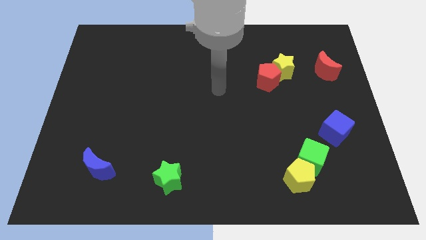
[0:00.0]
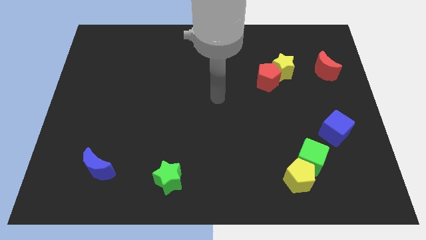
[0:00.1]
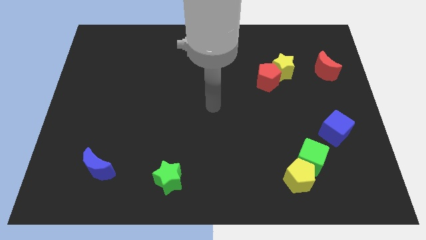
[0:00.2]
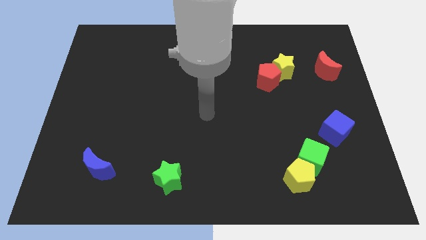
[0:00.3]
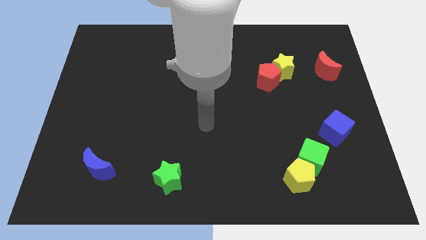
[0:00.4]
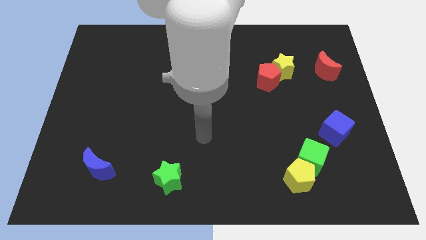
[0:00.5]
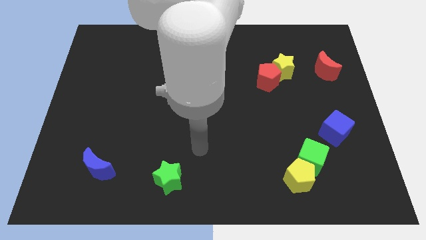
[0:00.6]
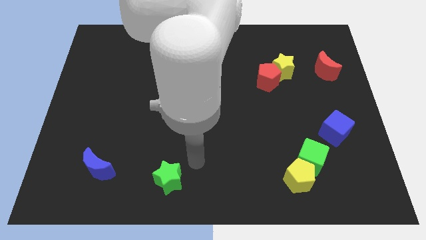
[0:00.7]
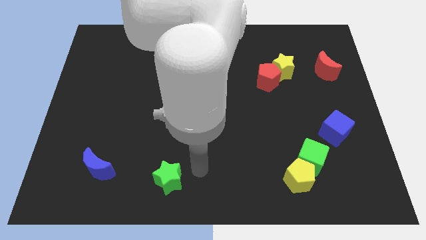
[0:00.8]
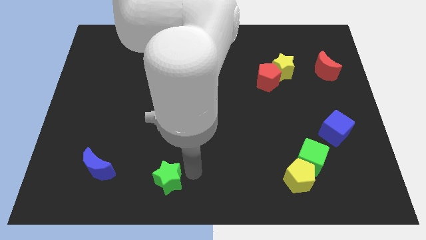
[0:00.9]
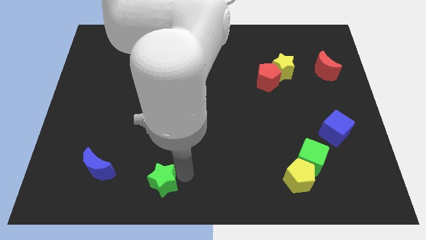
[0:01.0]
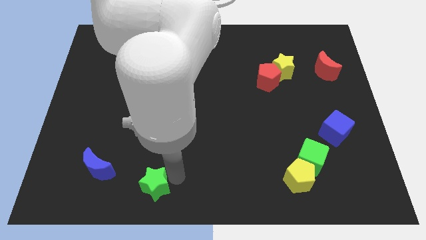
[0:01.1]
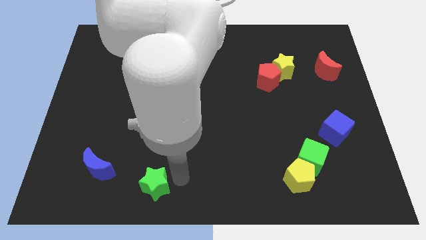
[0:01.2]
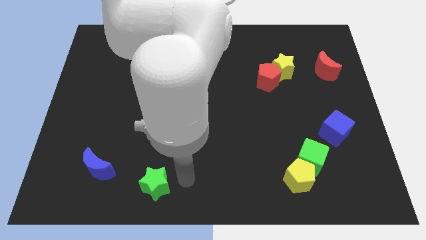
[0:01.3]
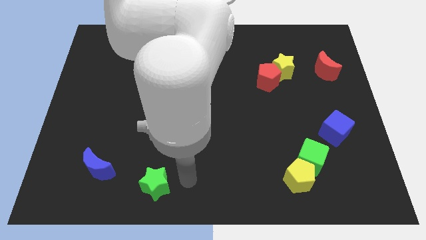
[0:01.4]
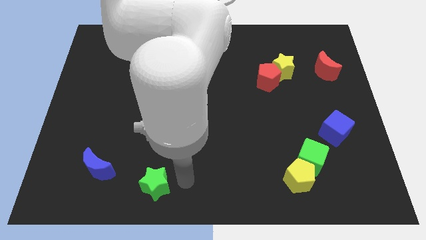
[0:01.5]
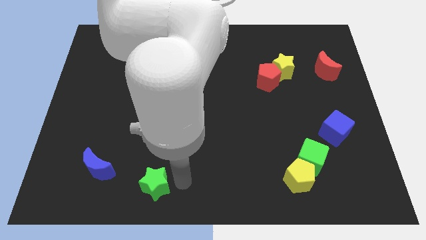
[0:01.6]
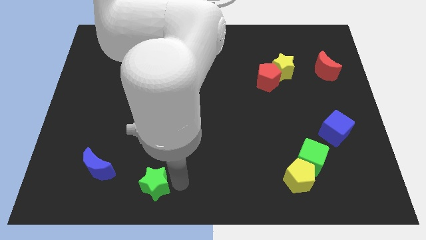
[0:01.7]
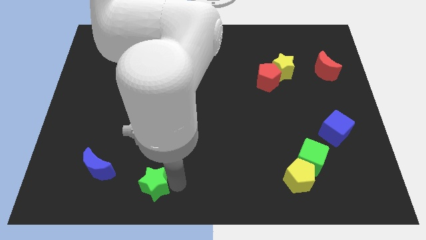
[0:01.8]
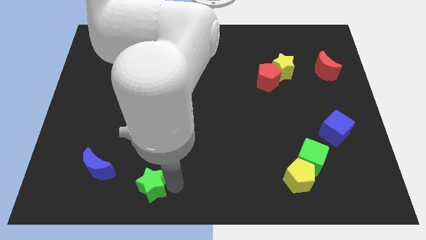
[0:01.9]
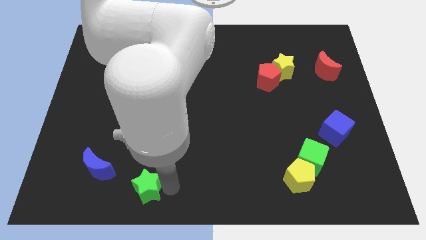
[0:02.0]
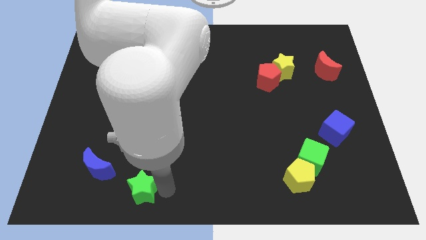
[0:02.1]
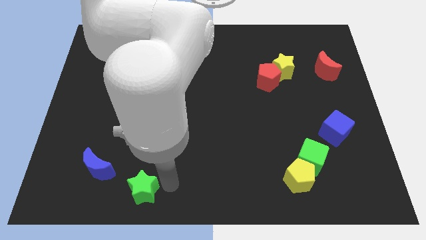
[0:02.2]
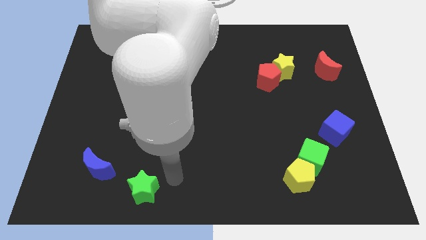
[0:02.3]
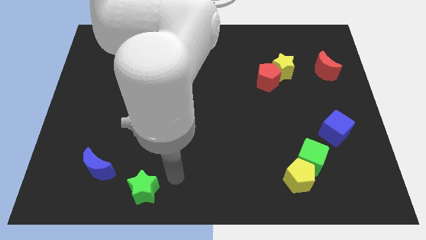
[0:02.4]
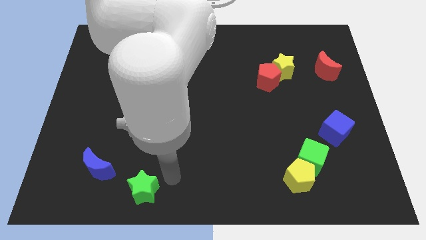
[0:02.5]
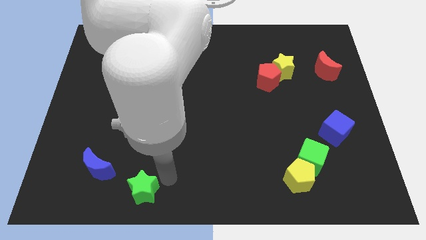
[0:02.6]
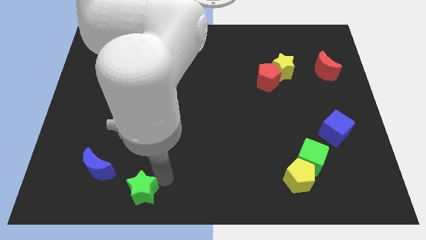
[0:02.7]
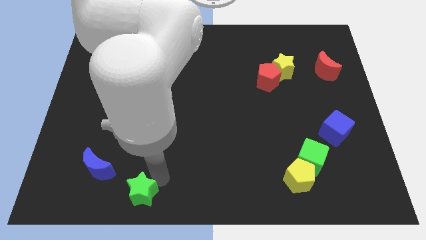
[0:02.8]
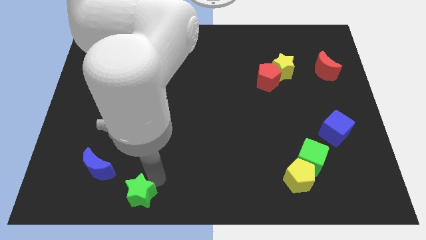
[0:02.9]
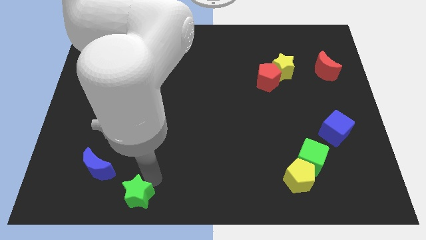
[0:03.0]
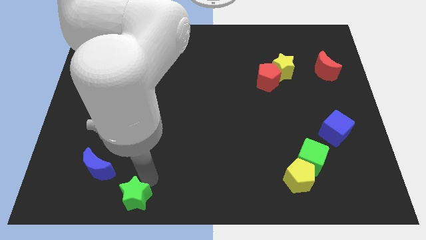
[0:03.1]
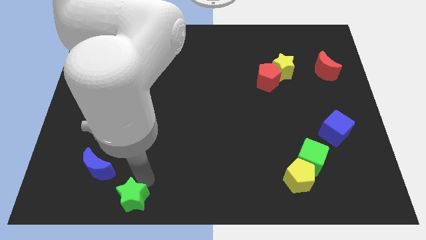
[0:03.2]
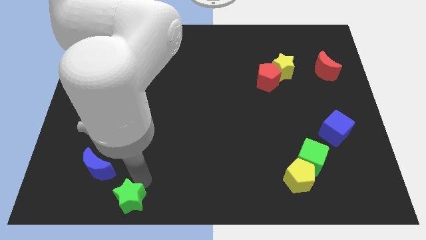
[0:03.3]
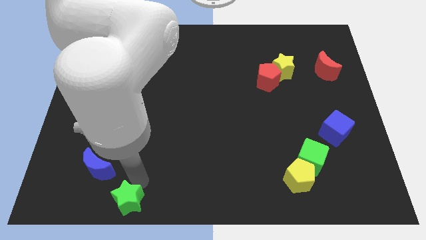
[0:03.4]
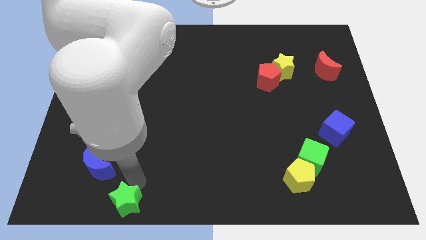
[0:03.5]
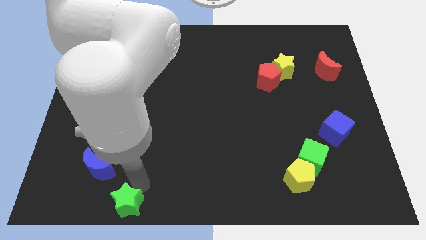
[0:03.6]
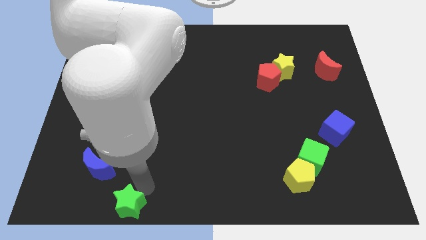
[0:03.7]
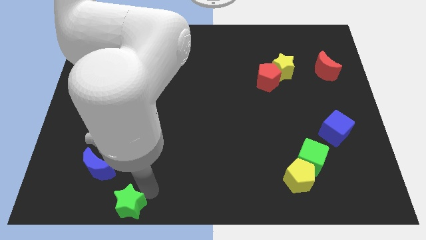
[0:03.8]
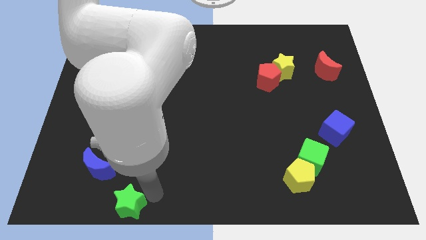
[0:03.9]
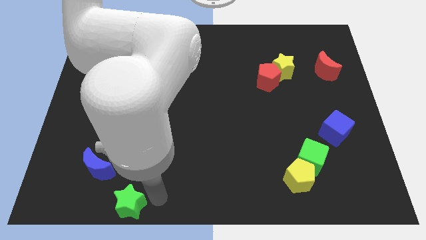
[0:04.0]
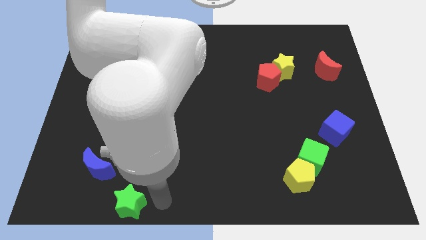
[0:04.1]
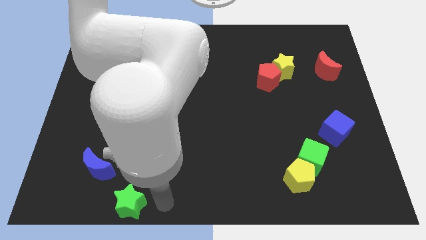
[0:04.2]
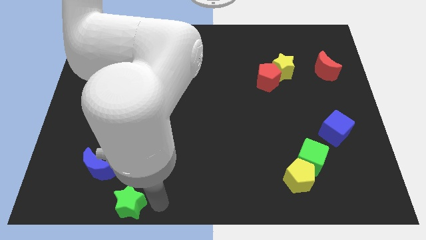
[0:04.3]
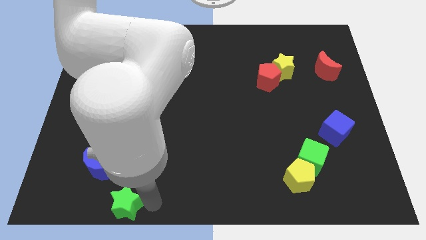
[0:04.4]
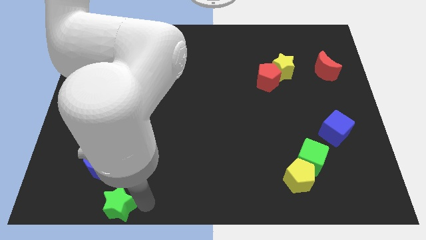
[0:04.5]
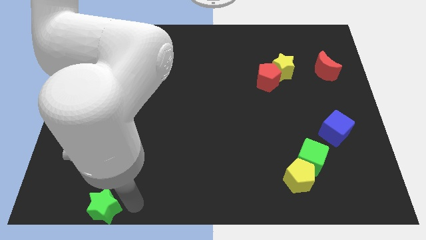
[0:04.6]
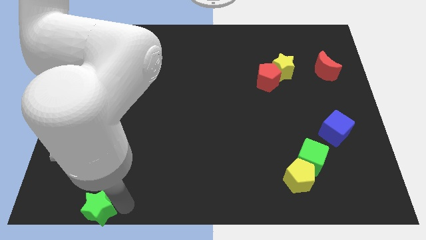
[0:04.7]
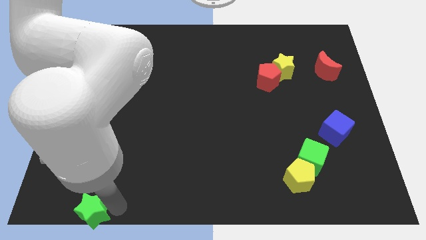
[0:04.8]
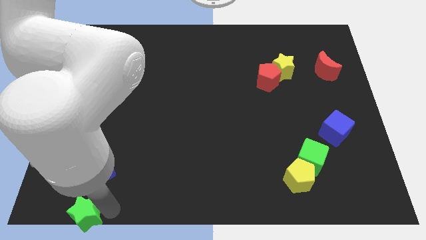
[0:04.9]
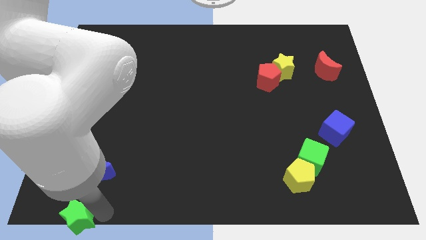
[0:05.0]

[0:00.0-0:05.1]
move the green star to the bottom left corner

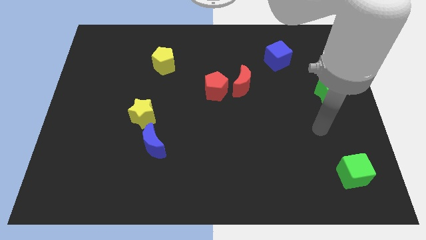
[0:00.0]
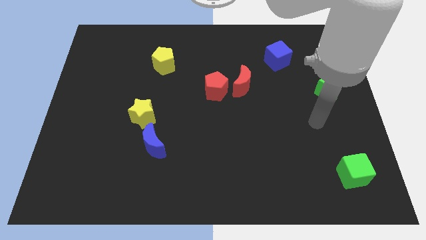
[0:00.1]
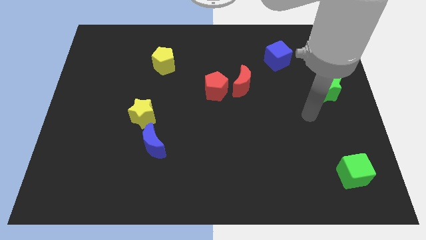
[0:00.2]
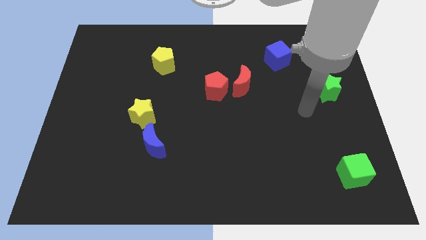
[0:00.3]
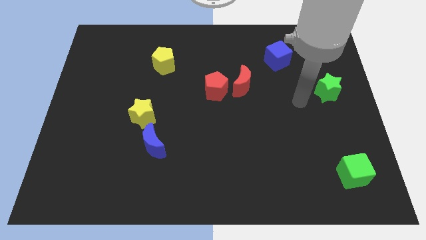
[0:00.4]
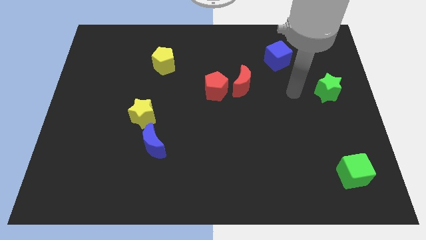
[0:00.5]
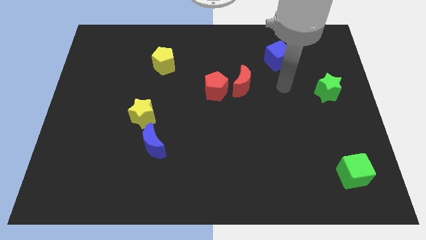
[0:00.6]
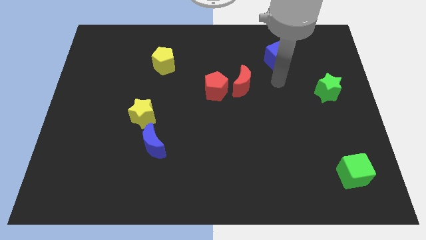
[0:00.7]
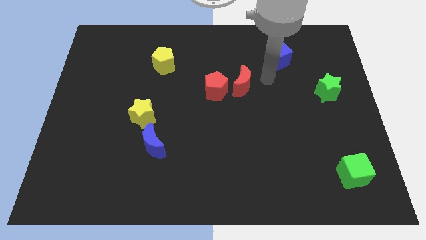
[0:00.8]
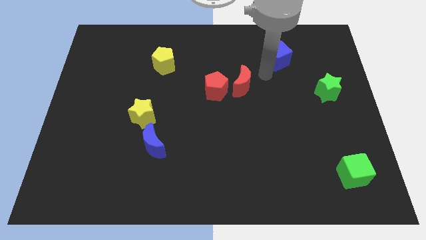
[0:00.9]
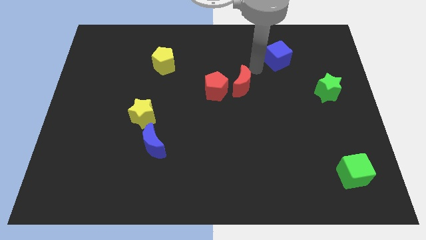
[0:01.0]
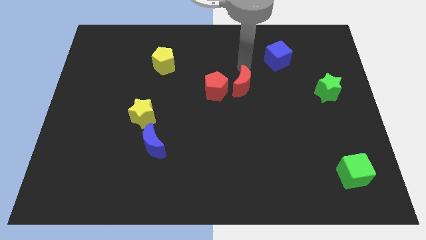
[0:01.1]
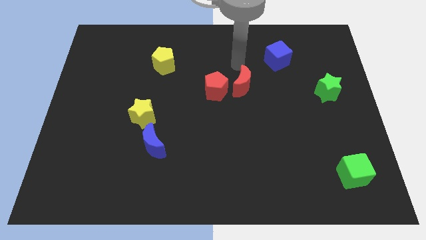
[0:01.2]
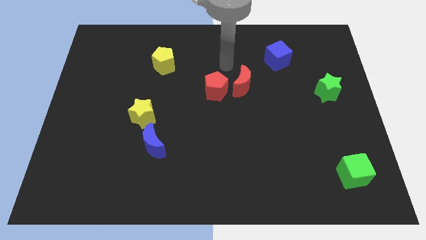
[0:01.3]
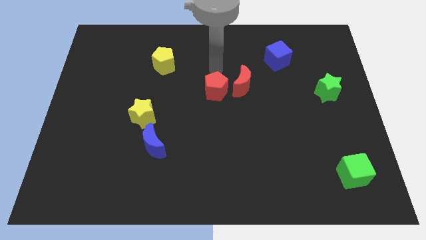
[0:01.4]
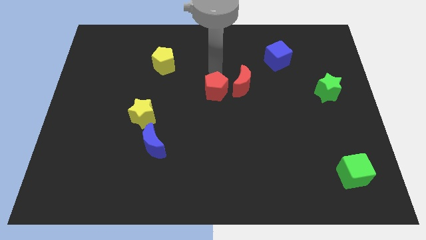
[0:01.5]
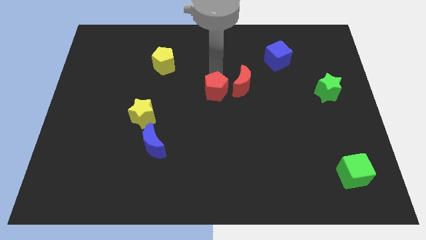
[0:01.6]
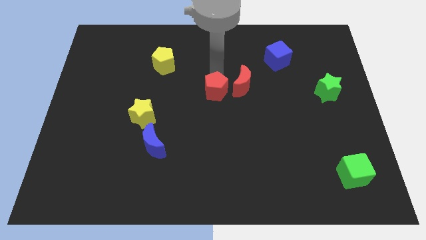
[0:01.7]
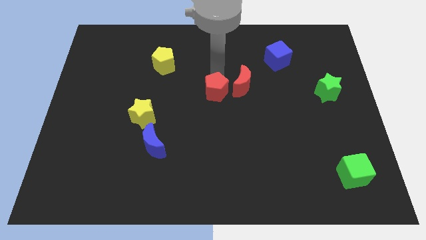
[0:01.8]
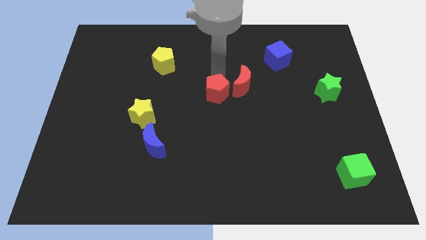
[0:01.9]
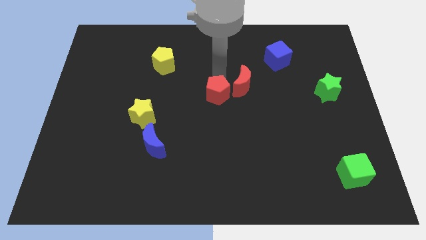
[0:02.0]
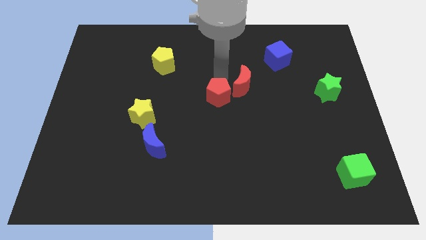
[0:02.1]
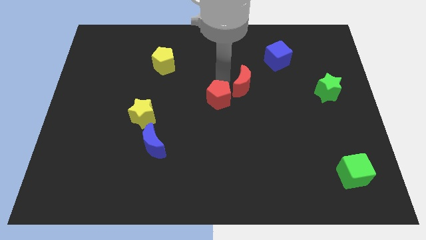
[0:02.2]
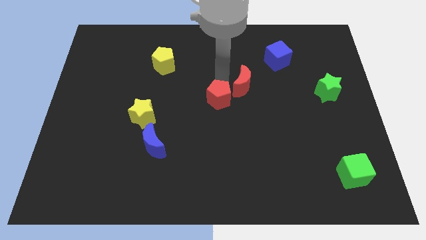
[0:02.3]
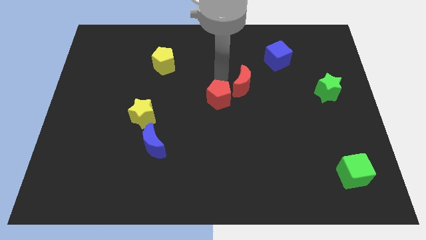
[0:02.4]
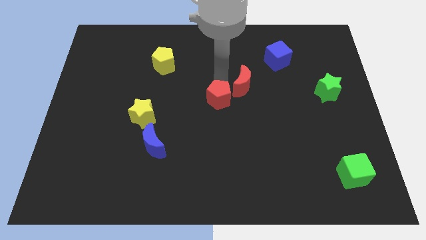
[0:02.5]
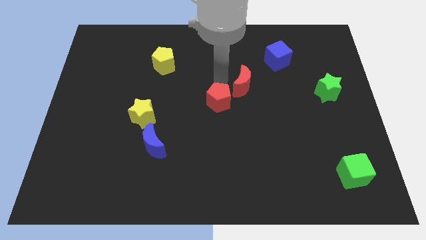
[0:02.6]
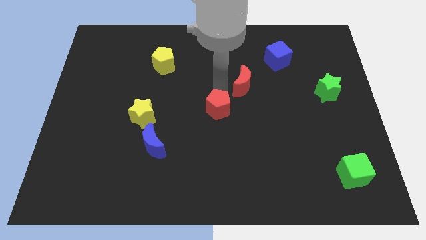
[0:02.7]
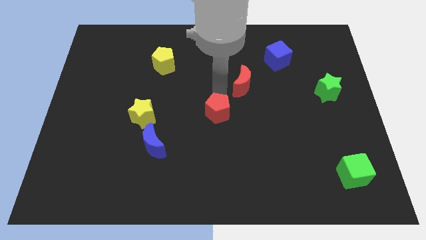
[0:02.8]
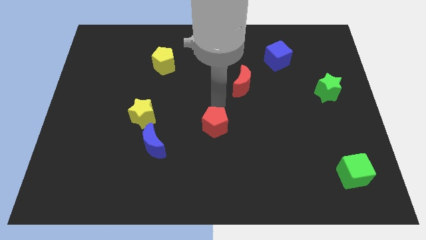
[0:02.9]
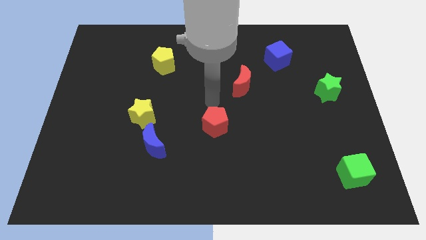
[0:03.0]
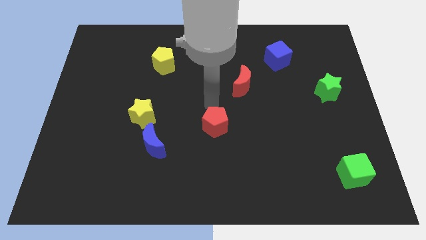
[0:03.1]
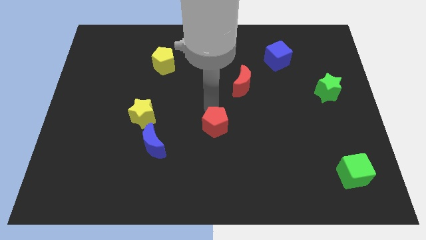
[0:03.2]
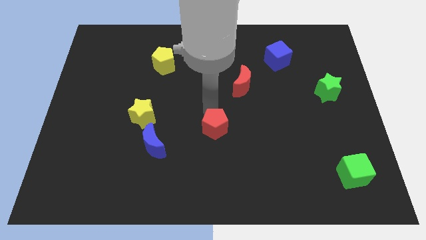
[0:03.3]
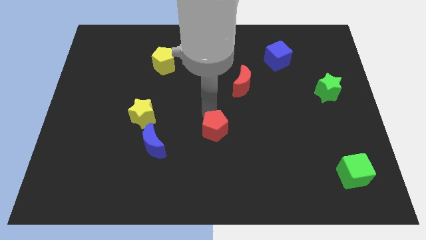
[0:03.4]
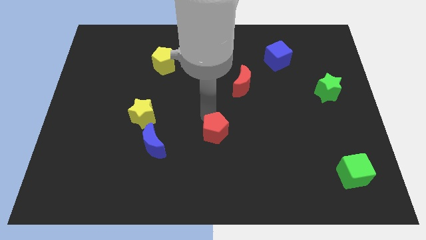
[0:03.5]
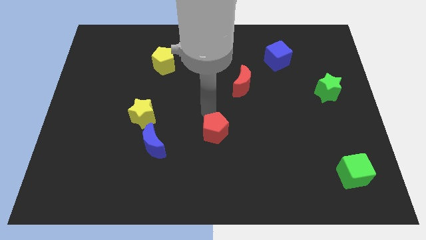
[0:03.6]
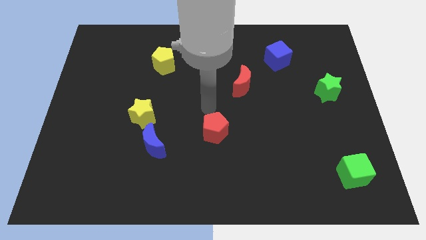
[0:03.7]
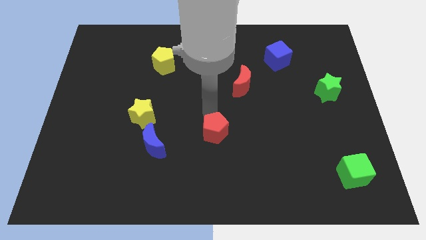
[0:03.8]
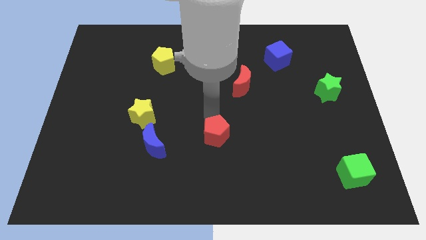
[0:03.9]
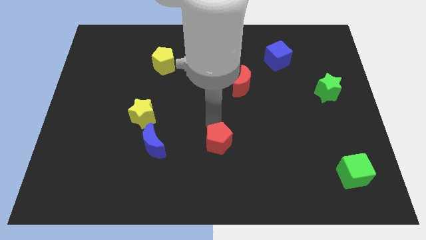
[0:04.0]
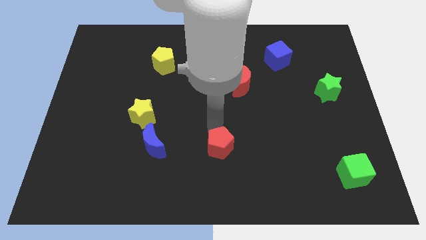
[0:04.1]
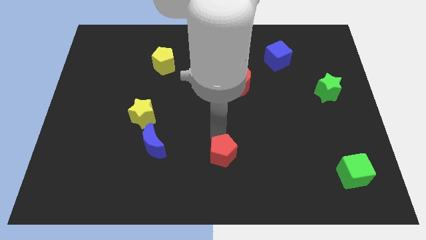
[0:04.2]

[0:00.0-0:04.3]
push the red pentagon to the bottom
